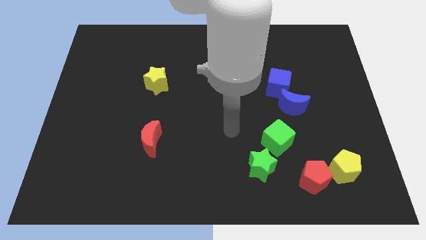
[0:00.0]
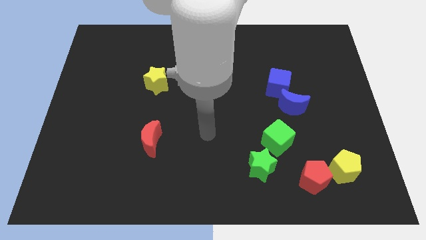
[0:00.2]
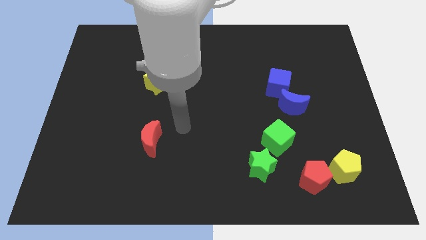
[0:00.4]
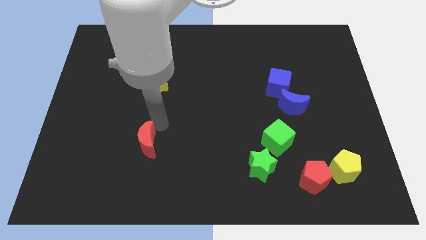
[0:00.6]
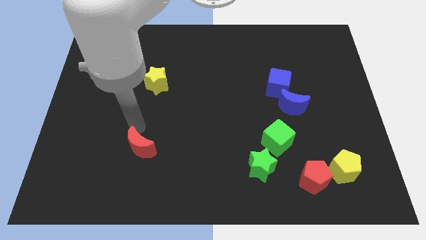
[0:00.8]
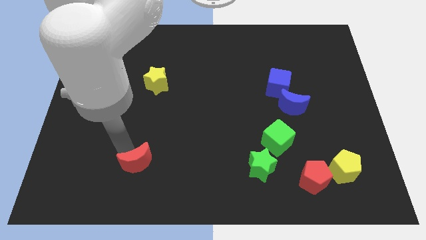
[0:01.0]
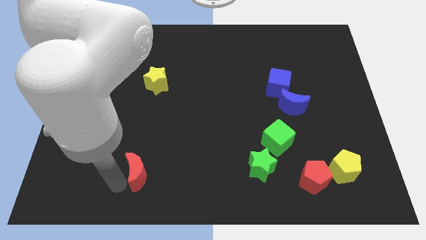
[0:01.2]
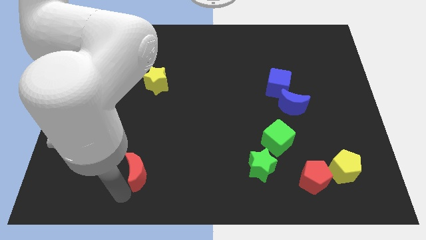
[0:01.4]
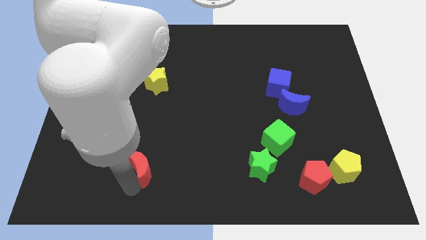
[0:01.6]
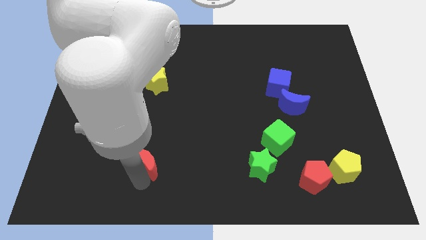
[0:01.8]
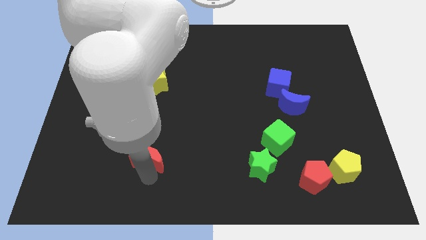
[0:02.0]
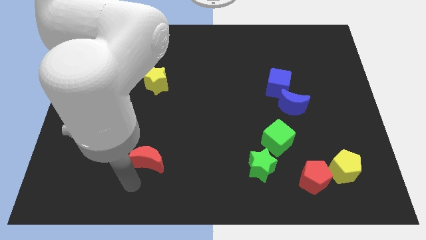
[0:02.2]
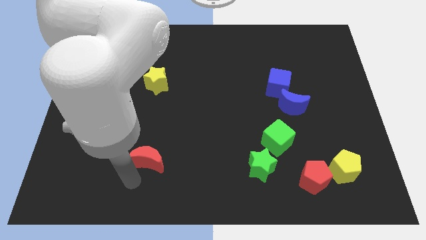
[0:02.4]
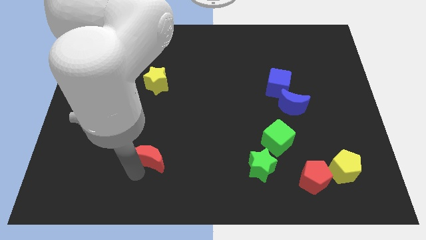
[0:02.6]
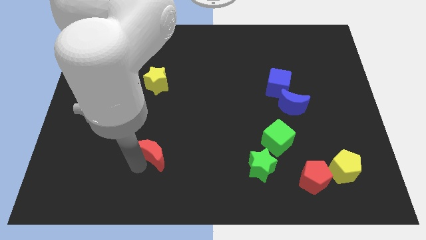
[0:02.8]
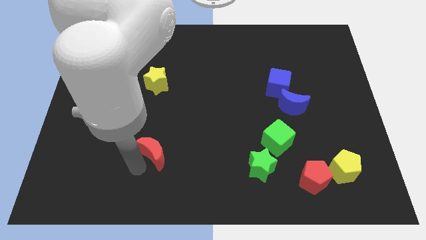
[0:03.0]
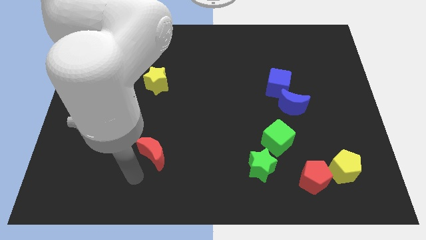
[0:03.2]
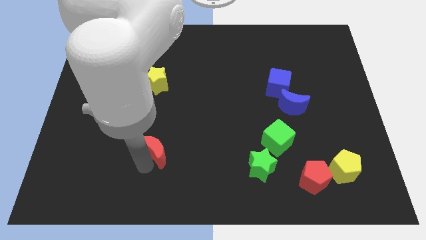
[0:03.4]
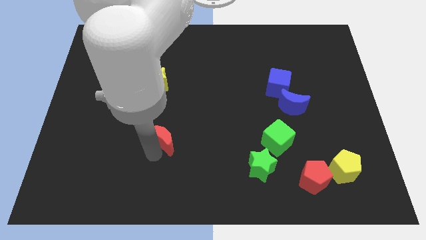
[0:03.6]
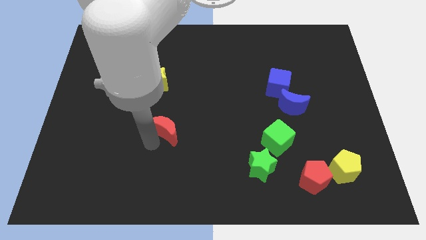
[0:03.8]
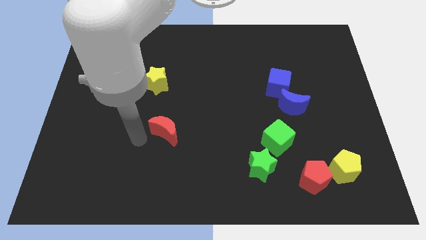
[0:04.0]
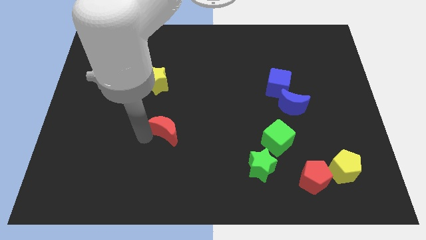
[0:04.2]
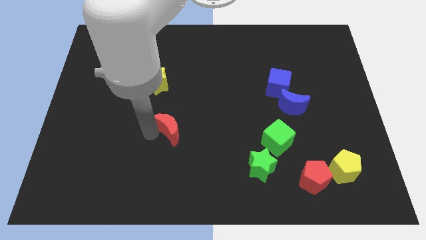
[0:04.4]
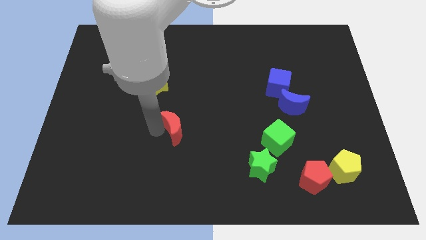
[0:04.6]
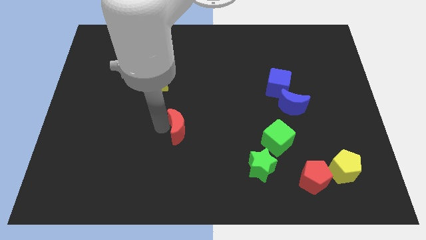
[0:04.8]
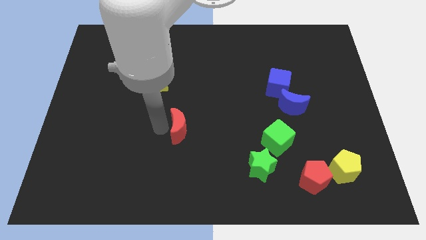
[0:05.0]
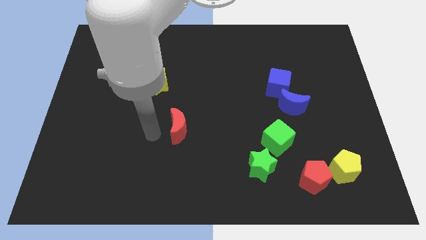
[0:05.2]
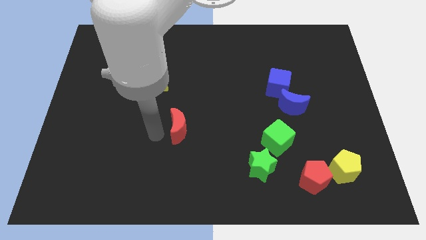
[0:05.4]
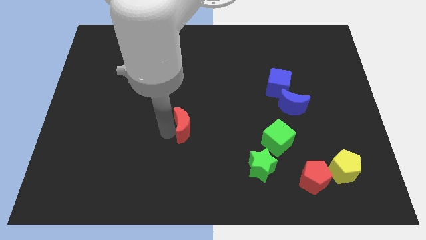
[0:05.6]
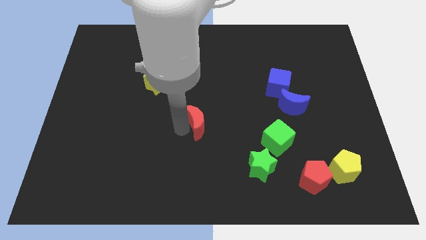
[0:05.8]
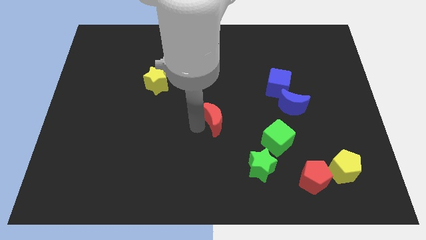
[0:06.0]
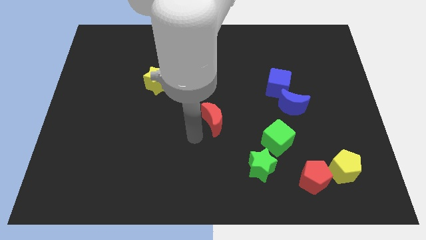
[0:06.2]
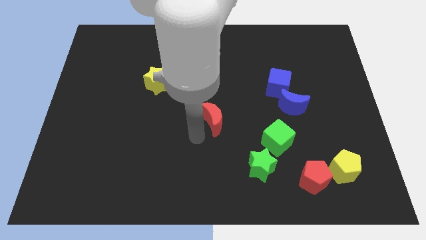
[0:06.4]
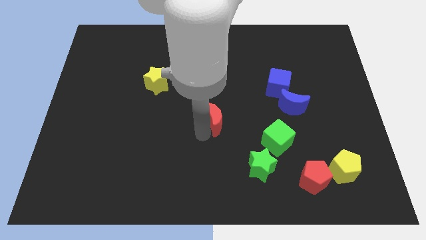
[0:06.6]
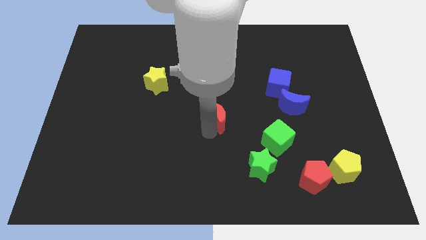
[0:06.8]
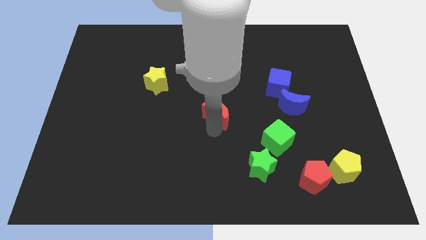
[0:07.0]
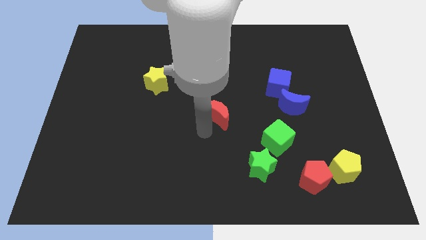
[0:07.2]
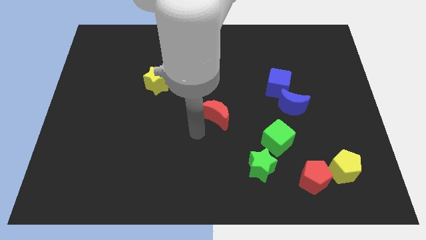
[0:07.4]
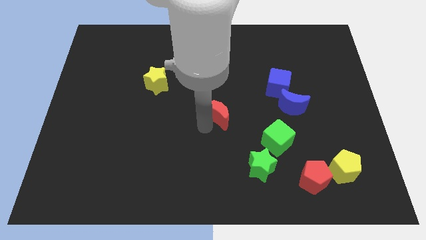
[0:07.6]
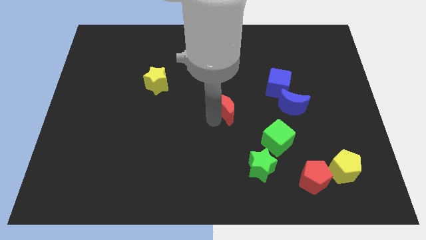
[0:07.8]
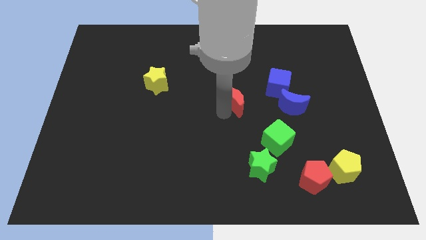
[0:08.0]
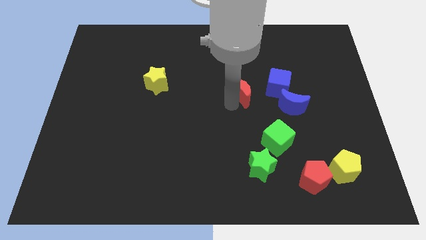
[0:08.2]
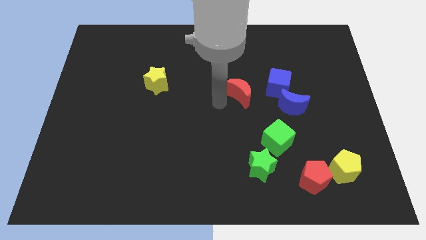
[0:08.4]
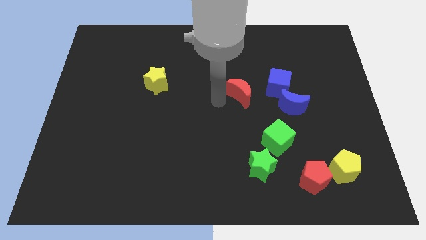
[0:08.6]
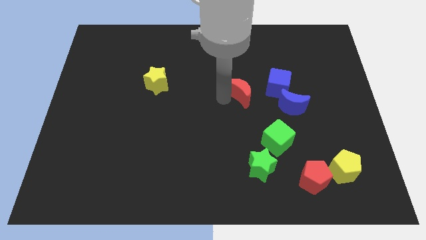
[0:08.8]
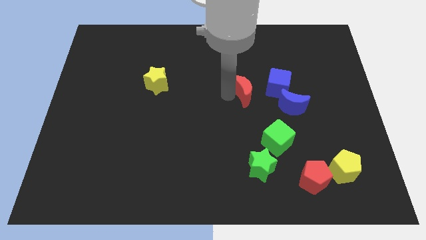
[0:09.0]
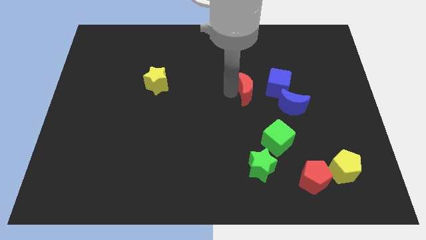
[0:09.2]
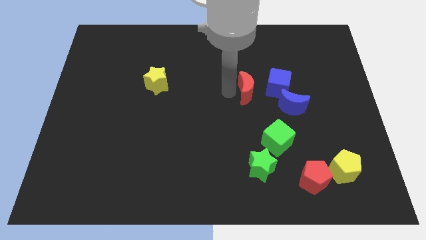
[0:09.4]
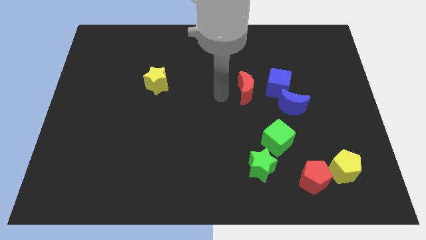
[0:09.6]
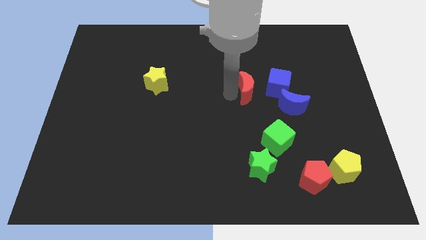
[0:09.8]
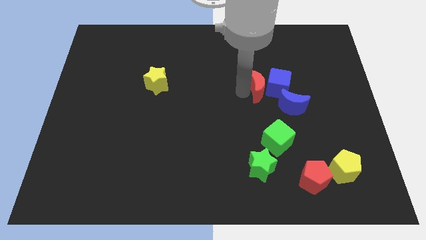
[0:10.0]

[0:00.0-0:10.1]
push the red moon close to the blue cube

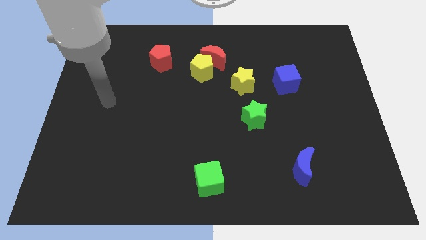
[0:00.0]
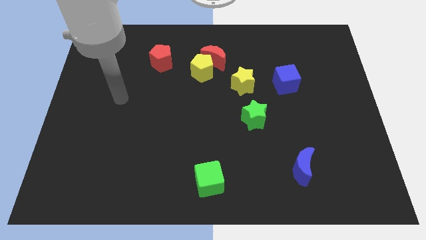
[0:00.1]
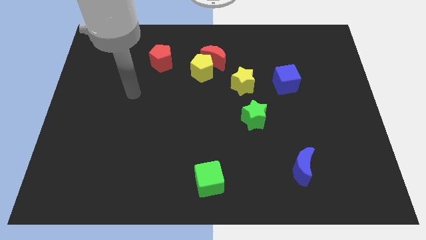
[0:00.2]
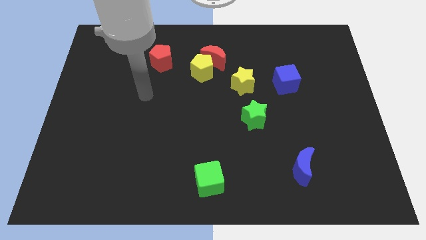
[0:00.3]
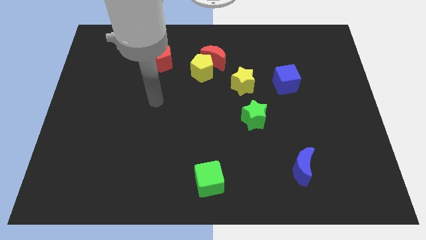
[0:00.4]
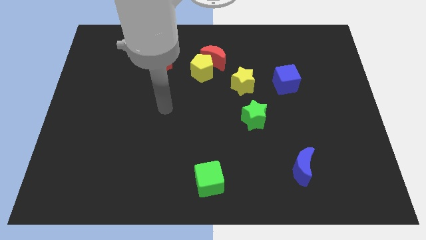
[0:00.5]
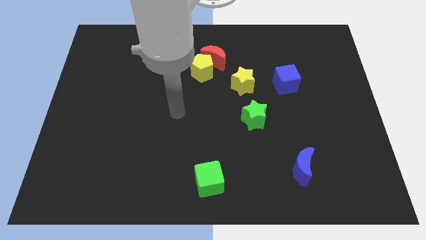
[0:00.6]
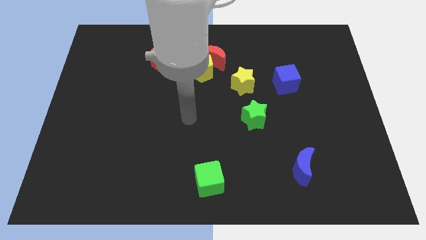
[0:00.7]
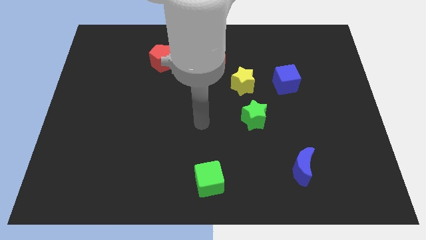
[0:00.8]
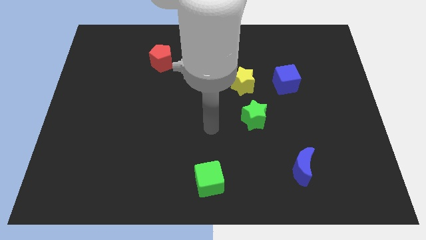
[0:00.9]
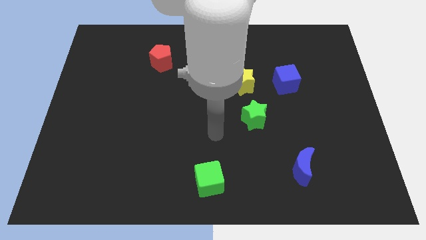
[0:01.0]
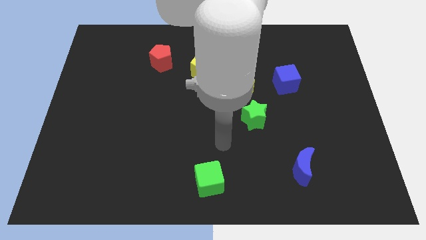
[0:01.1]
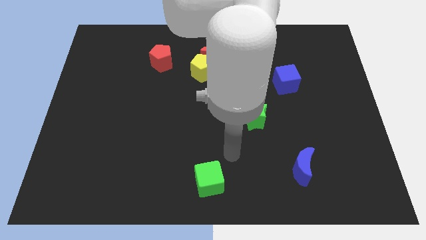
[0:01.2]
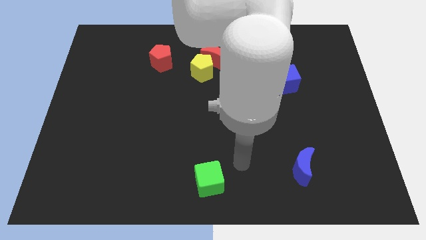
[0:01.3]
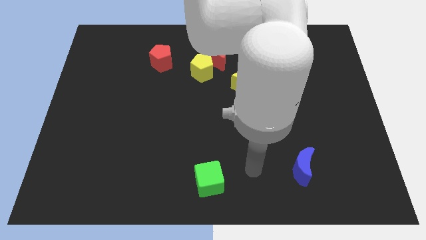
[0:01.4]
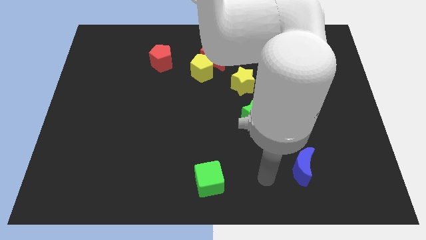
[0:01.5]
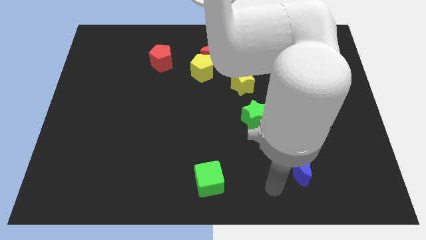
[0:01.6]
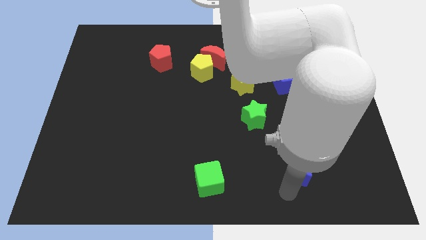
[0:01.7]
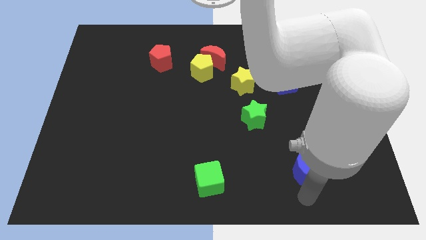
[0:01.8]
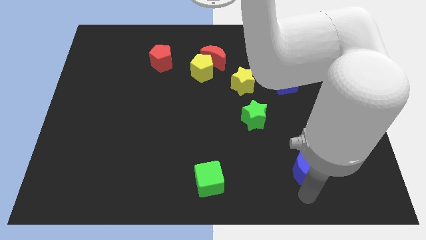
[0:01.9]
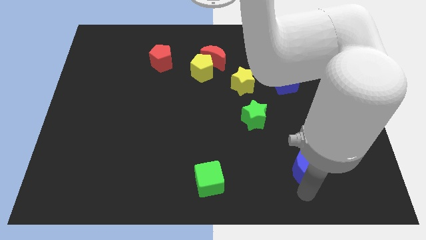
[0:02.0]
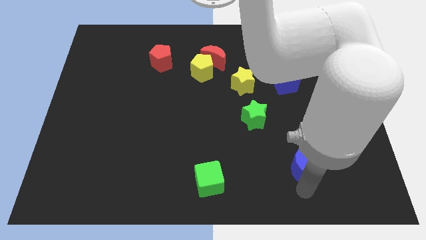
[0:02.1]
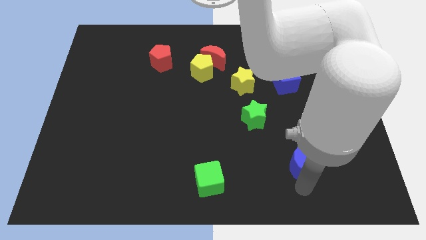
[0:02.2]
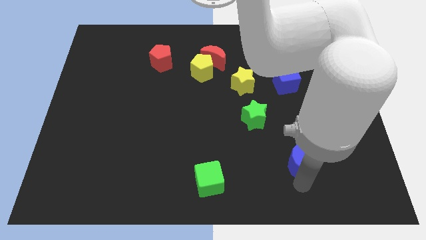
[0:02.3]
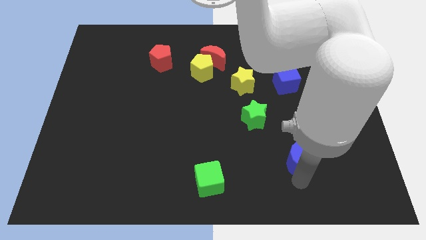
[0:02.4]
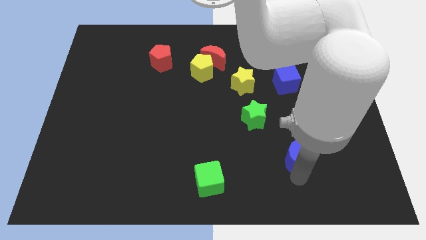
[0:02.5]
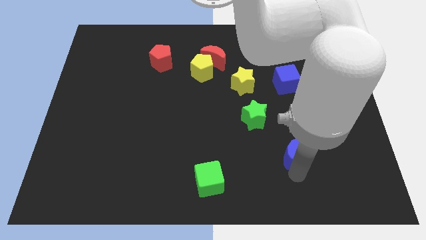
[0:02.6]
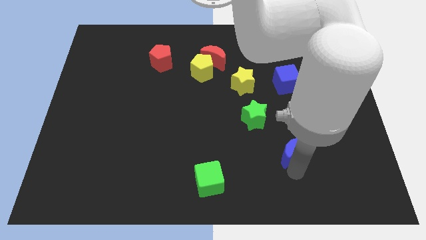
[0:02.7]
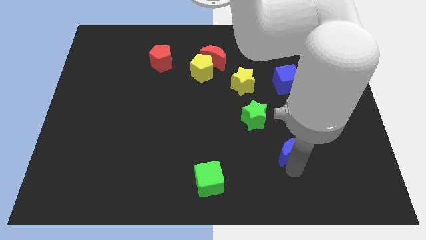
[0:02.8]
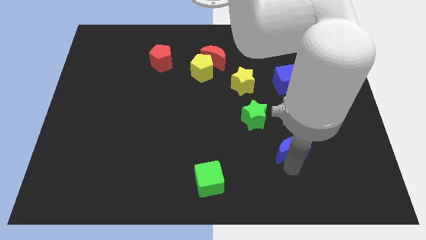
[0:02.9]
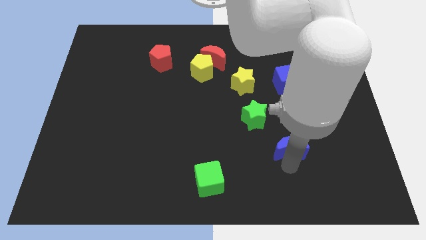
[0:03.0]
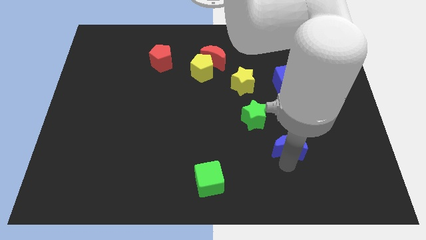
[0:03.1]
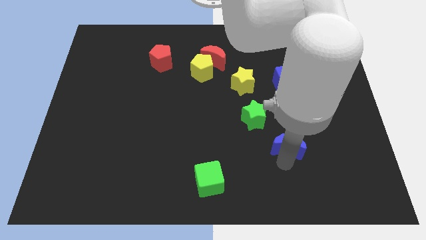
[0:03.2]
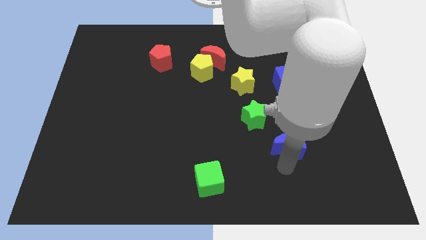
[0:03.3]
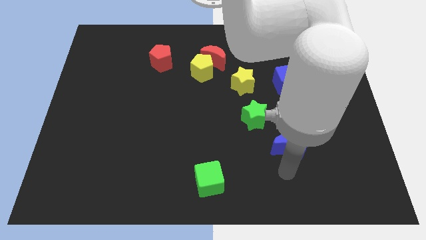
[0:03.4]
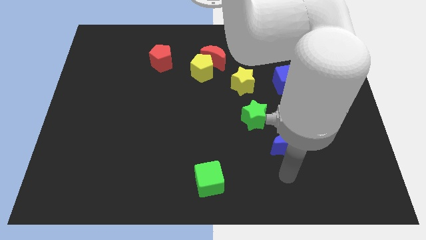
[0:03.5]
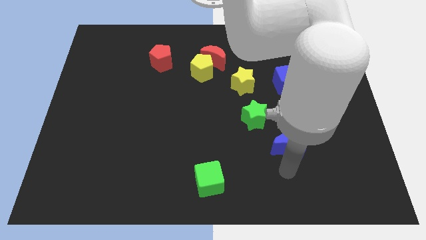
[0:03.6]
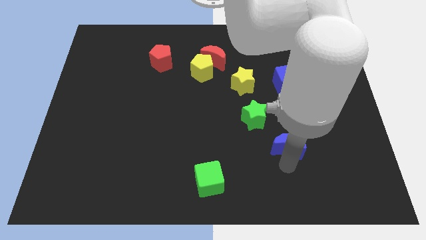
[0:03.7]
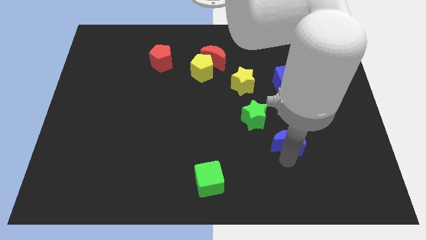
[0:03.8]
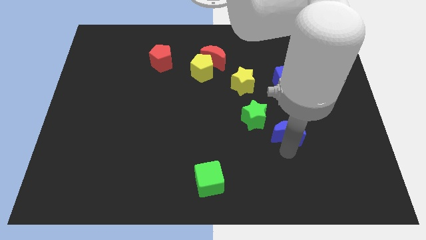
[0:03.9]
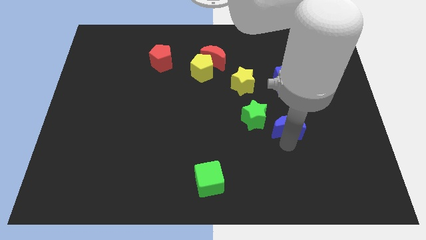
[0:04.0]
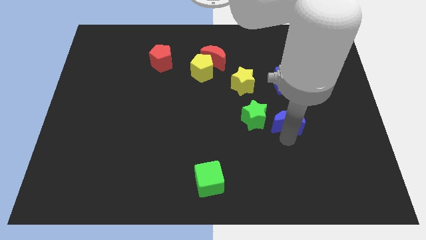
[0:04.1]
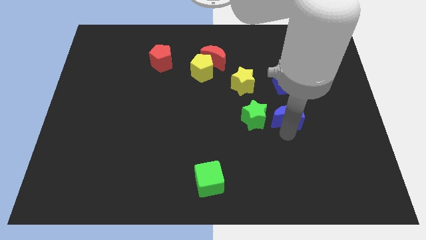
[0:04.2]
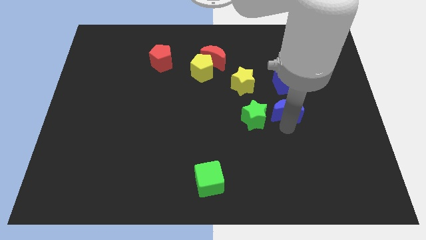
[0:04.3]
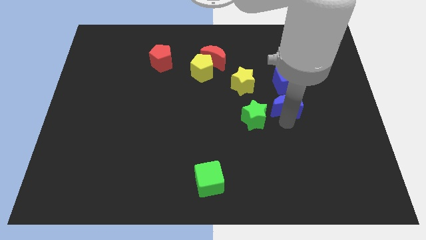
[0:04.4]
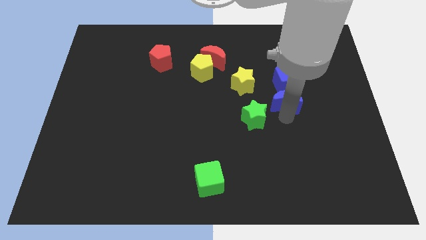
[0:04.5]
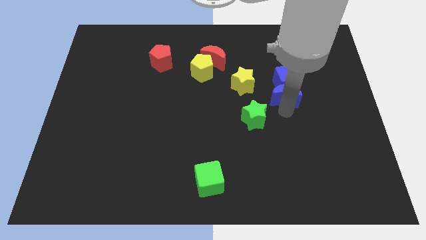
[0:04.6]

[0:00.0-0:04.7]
slide the blue moon next to the blue cube
